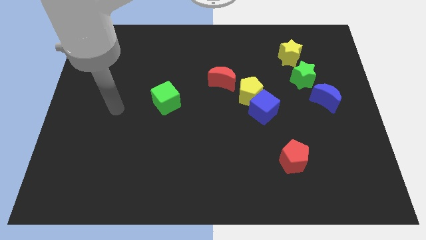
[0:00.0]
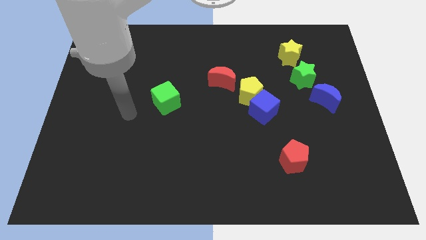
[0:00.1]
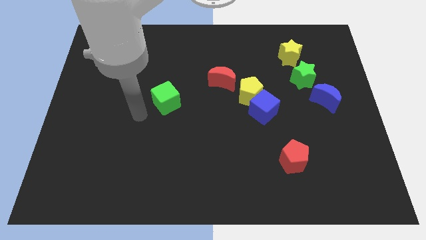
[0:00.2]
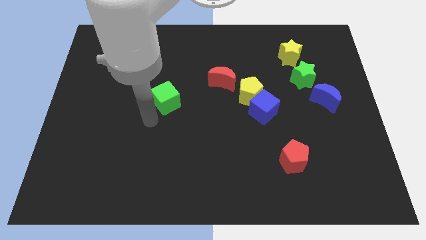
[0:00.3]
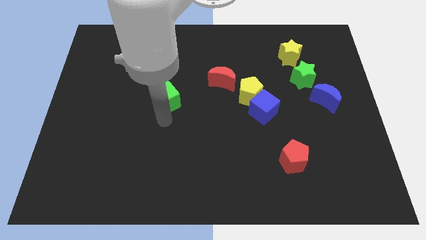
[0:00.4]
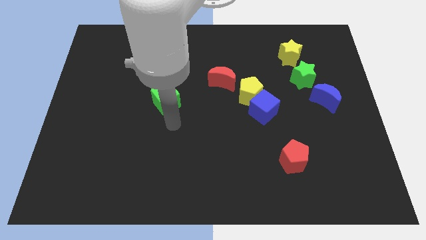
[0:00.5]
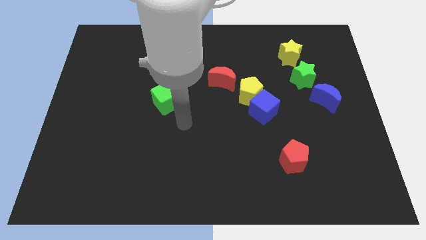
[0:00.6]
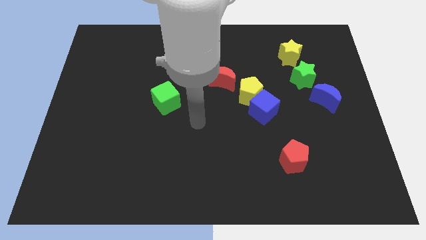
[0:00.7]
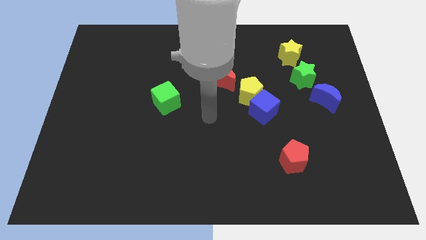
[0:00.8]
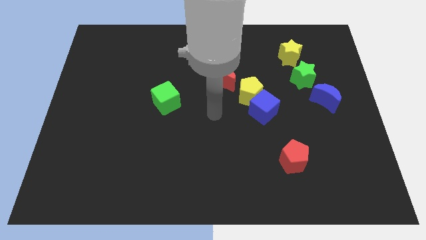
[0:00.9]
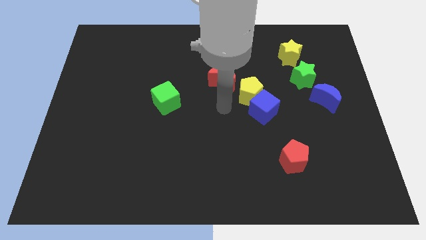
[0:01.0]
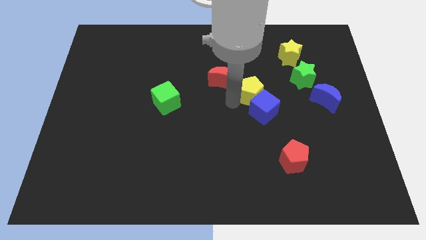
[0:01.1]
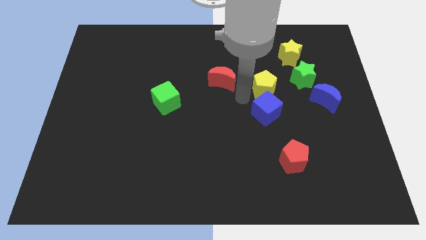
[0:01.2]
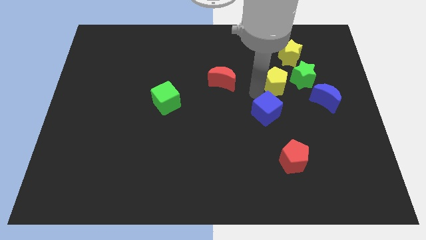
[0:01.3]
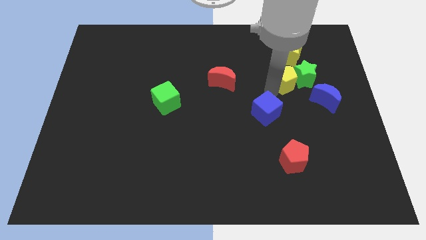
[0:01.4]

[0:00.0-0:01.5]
separate the blue cube from the yellow pentagon

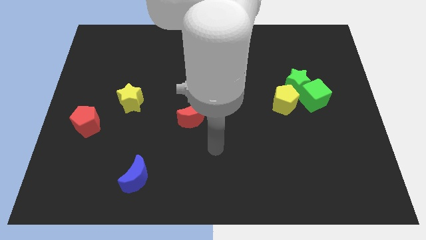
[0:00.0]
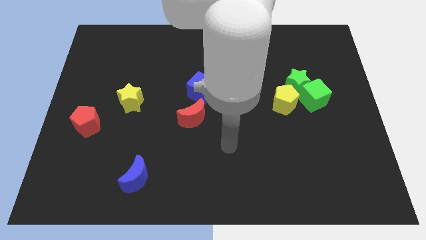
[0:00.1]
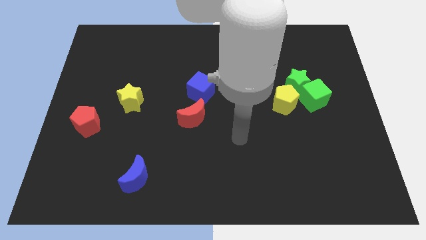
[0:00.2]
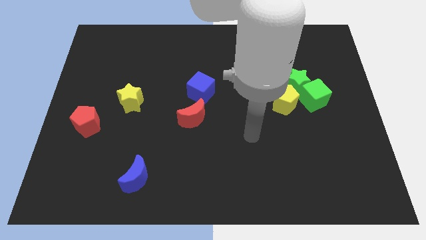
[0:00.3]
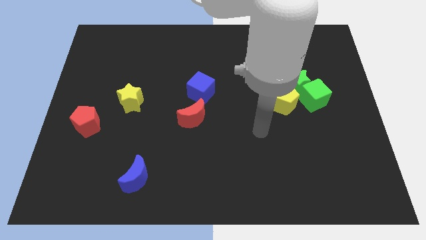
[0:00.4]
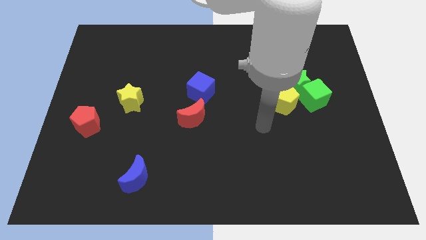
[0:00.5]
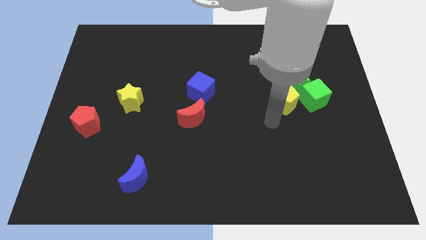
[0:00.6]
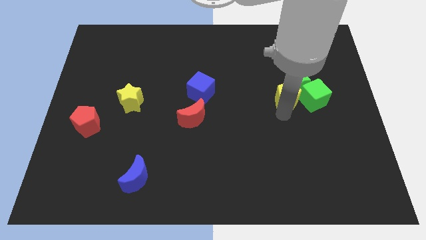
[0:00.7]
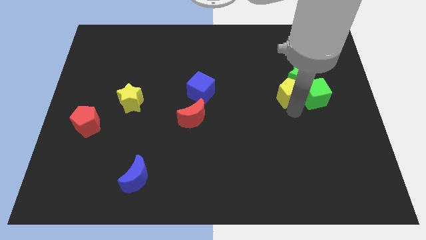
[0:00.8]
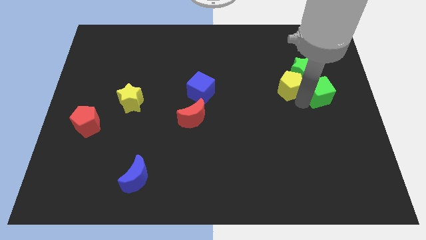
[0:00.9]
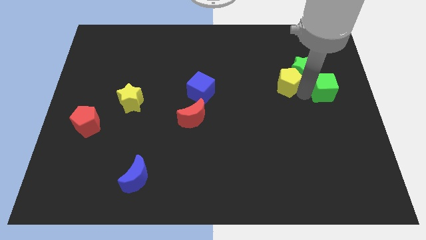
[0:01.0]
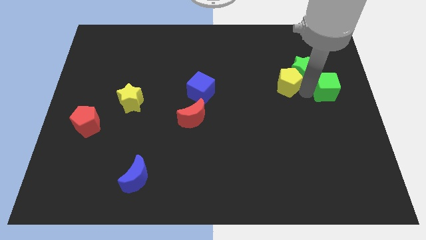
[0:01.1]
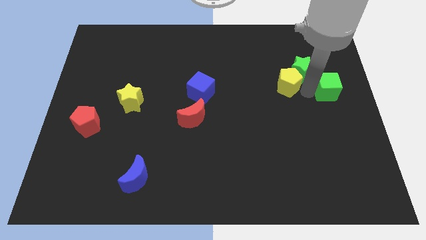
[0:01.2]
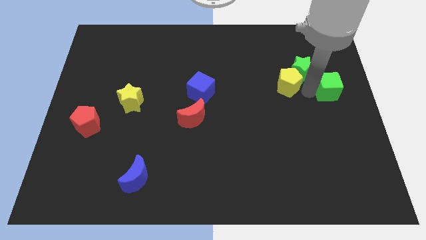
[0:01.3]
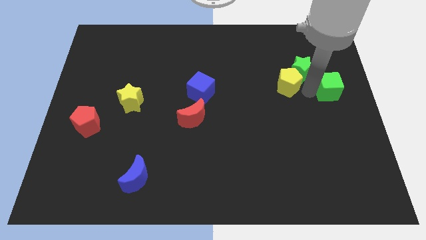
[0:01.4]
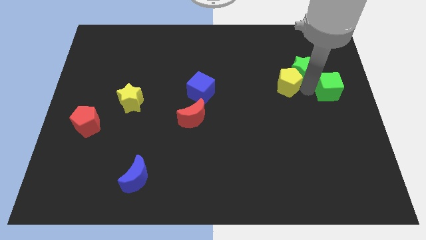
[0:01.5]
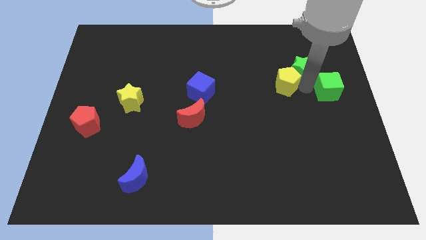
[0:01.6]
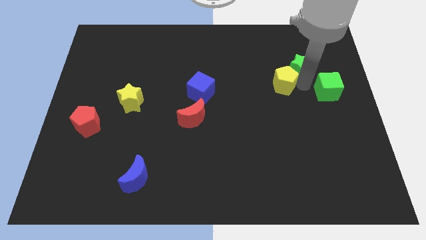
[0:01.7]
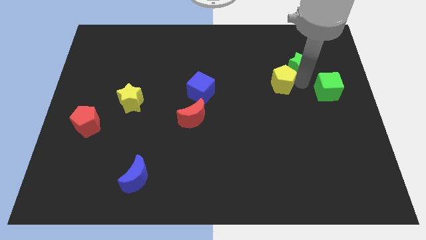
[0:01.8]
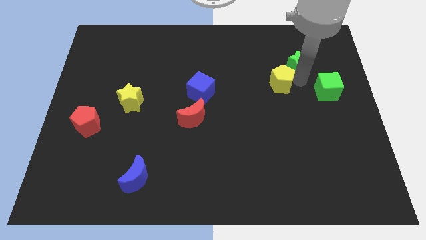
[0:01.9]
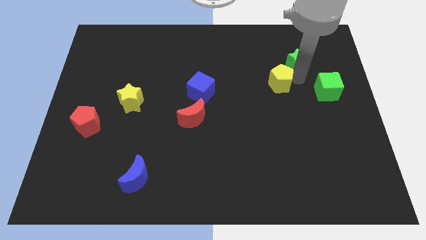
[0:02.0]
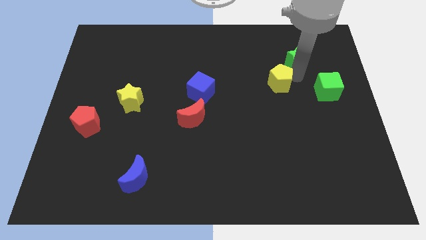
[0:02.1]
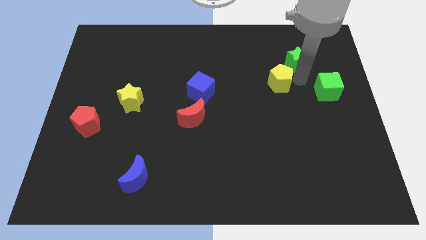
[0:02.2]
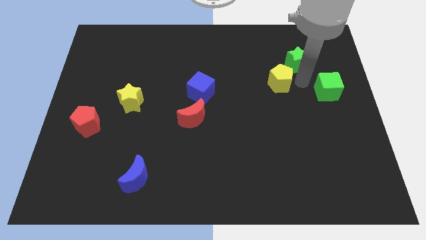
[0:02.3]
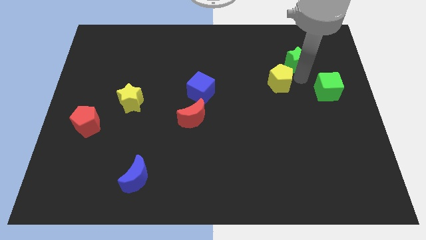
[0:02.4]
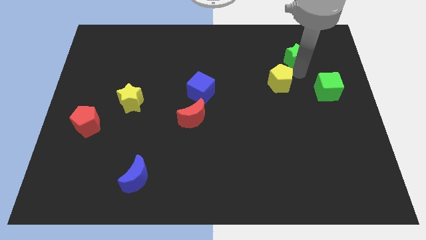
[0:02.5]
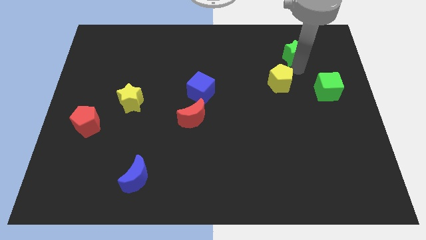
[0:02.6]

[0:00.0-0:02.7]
separate the green star from the green cube and yellow pentagon

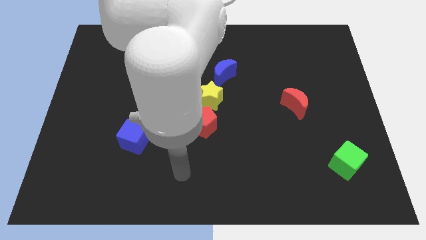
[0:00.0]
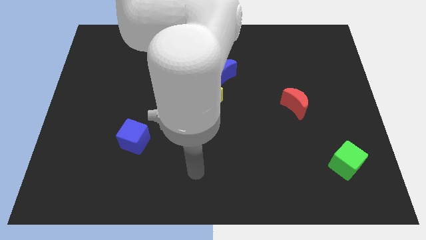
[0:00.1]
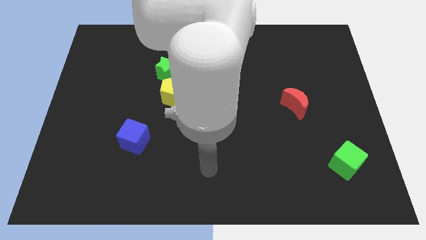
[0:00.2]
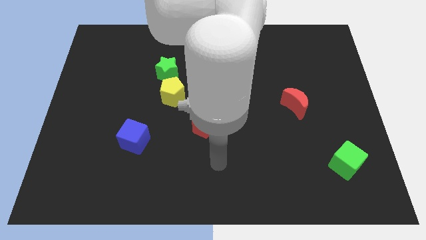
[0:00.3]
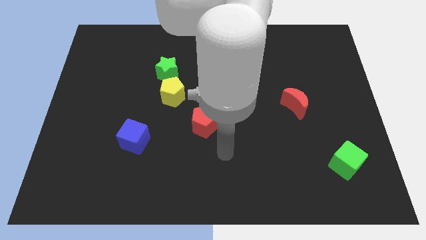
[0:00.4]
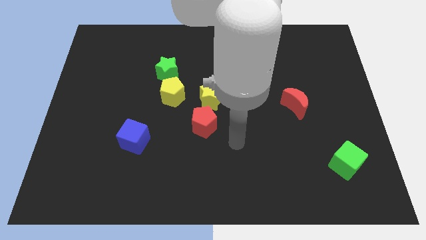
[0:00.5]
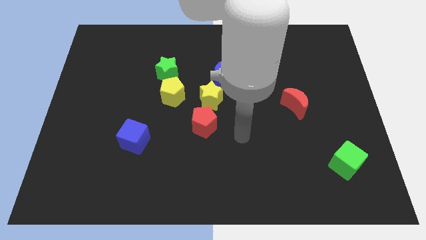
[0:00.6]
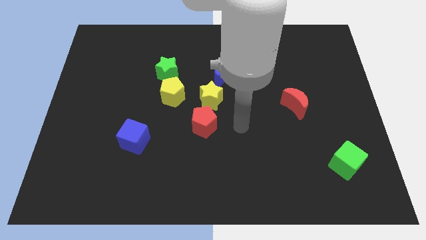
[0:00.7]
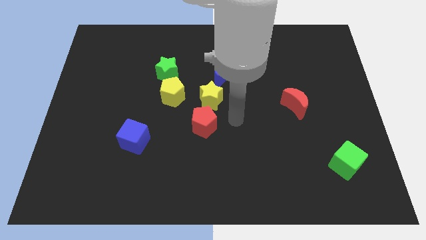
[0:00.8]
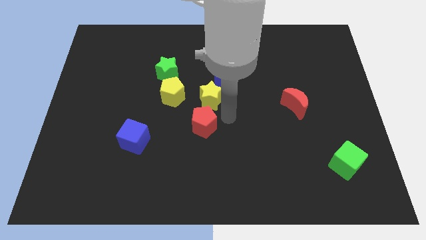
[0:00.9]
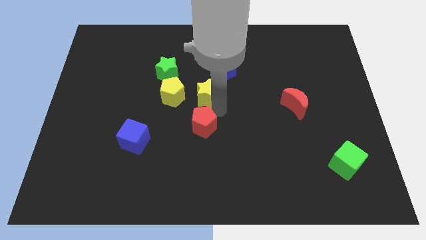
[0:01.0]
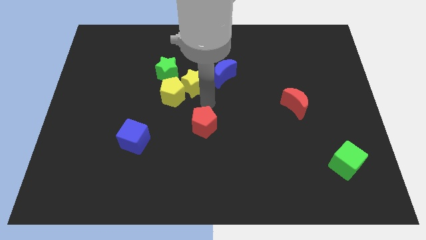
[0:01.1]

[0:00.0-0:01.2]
separate the red pentagon from the yellow star

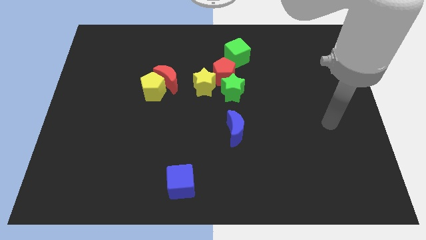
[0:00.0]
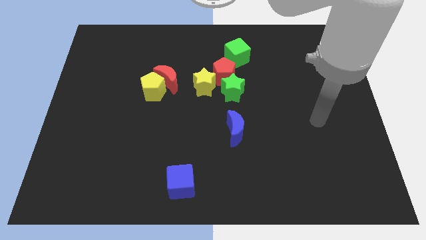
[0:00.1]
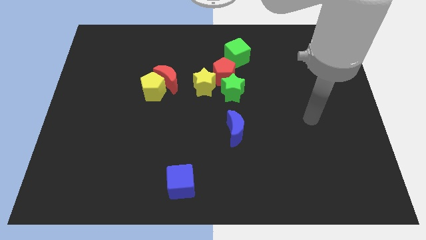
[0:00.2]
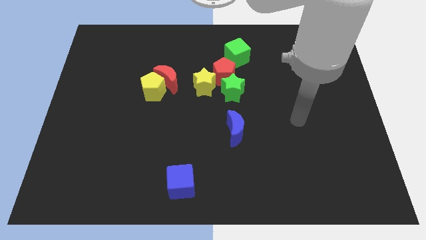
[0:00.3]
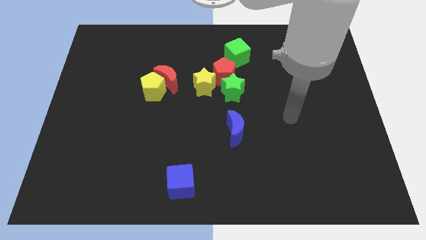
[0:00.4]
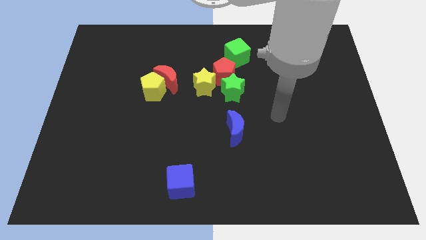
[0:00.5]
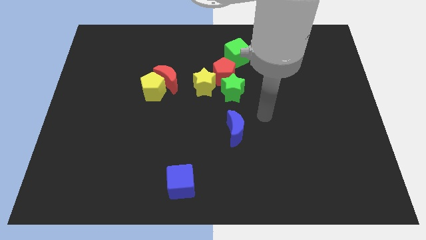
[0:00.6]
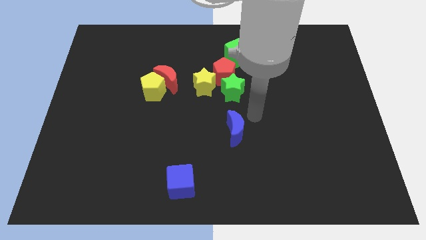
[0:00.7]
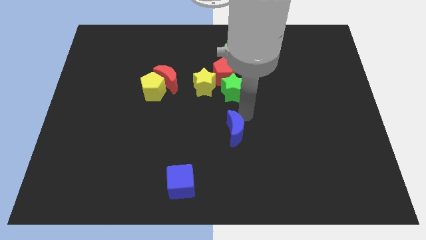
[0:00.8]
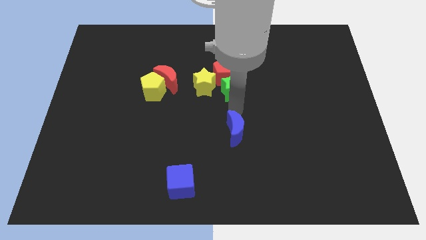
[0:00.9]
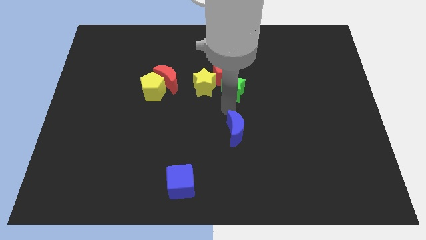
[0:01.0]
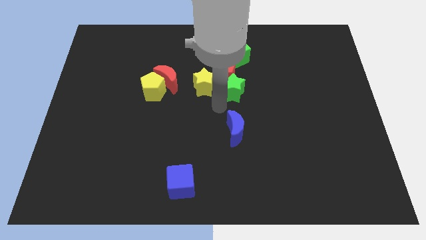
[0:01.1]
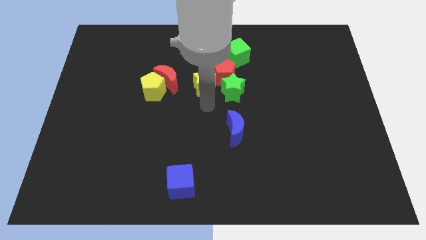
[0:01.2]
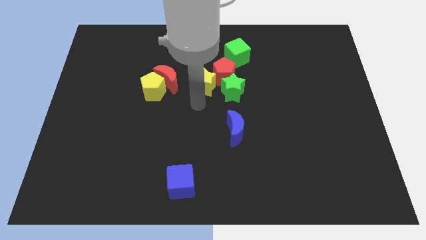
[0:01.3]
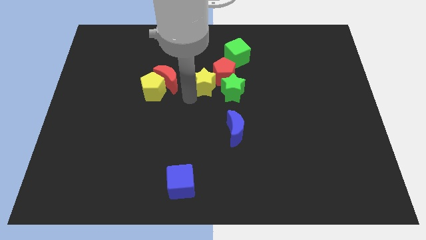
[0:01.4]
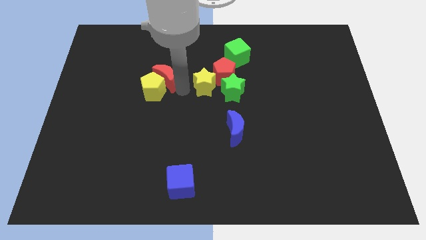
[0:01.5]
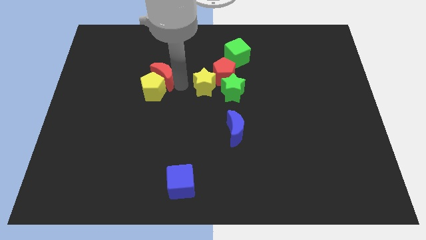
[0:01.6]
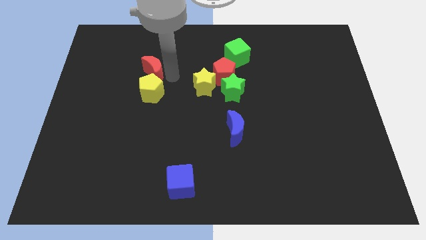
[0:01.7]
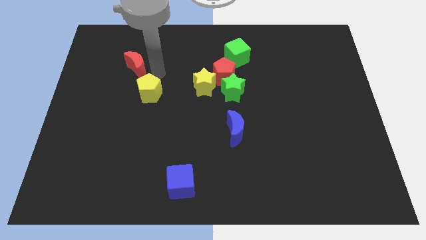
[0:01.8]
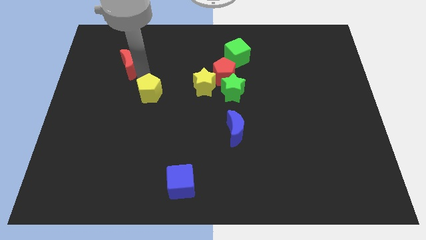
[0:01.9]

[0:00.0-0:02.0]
move the yellow pentagon away from the red moon

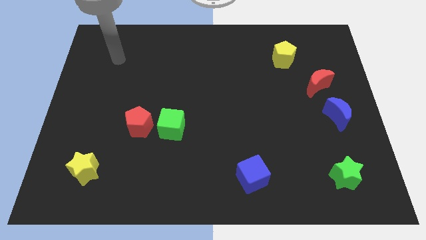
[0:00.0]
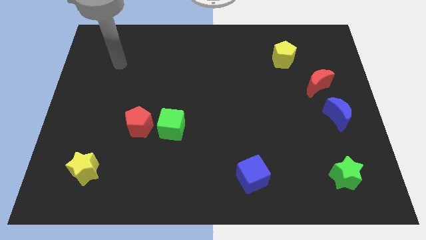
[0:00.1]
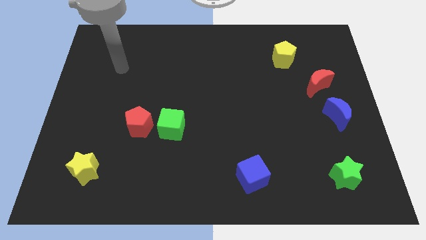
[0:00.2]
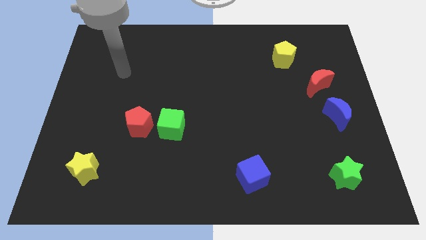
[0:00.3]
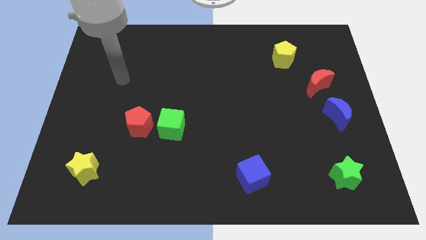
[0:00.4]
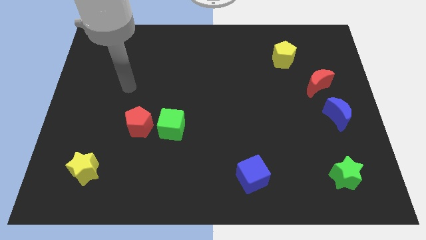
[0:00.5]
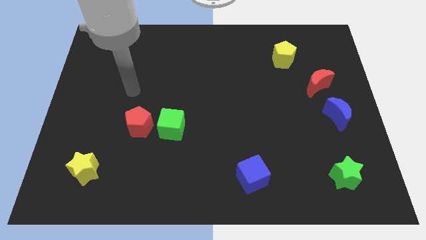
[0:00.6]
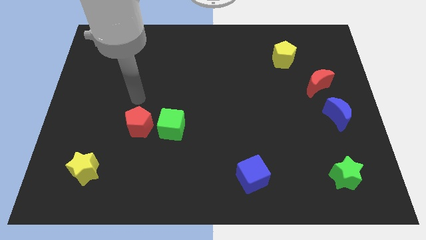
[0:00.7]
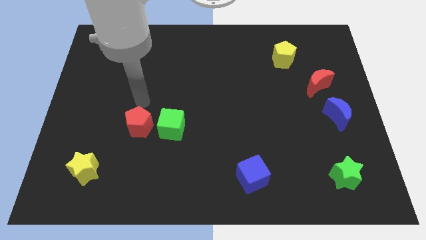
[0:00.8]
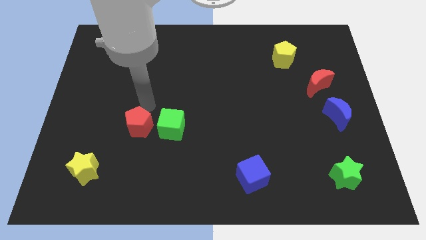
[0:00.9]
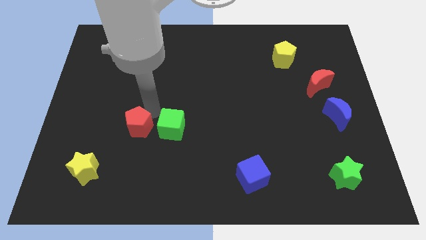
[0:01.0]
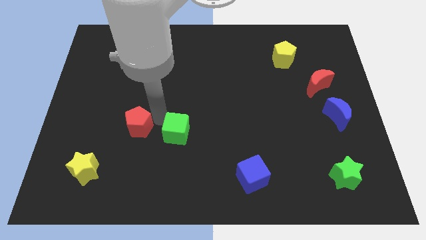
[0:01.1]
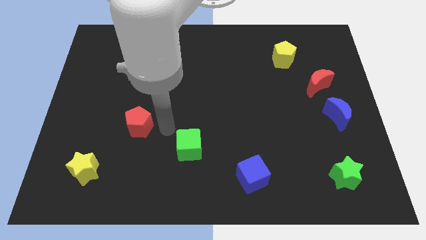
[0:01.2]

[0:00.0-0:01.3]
pull the red pentagon apart from the green cube

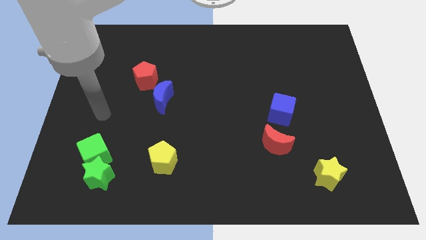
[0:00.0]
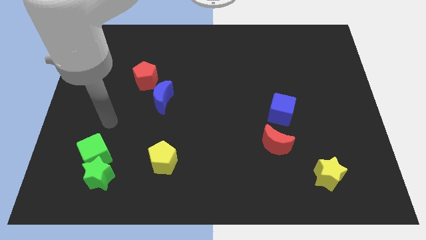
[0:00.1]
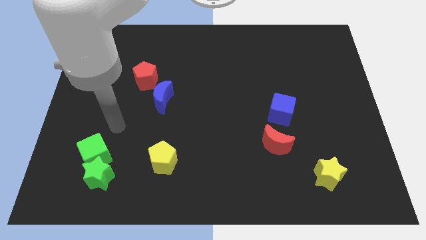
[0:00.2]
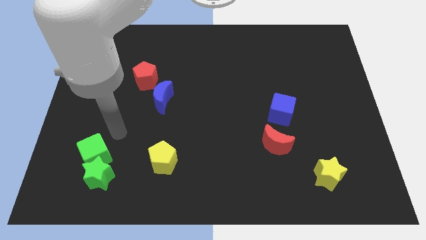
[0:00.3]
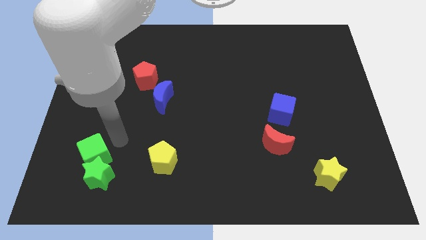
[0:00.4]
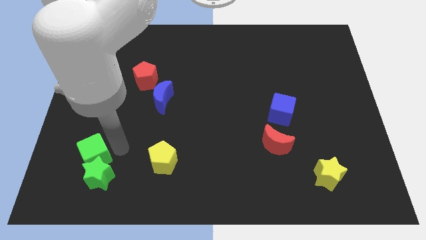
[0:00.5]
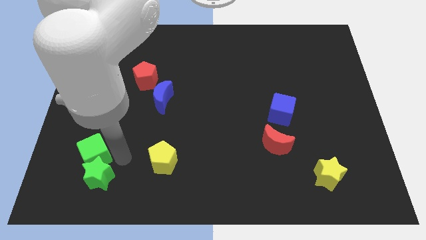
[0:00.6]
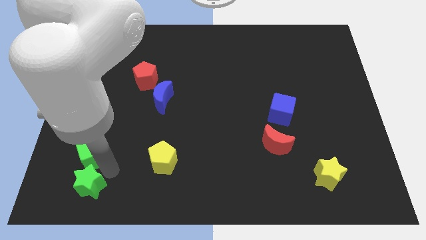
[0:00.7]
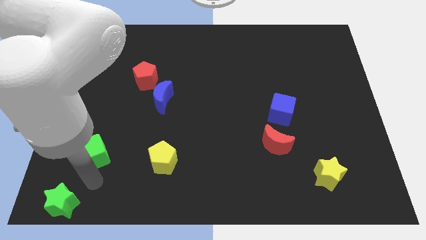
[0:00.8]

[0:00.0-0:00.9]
move the green cube away from the green star
